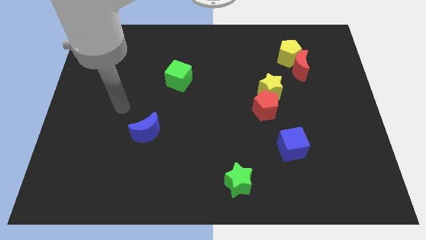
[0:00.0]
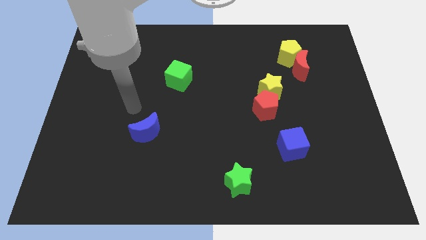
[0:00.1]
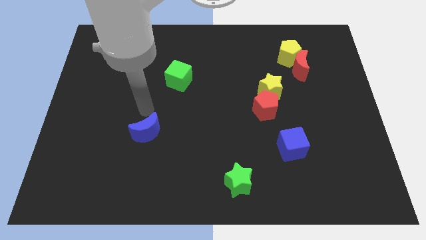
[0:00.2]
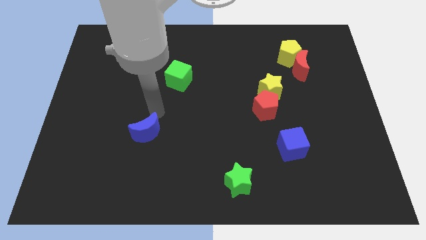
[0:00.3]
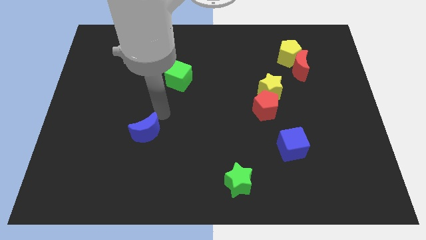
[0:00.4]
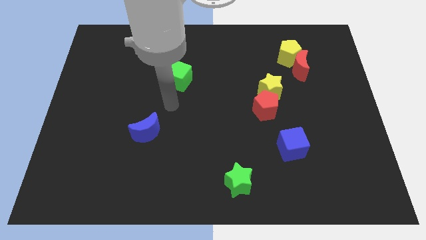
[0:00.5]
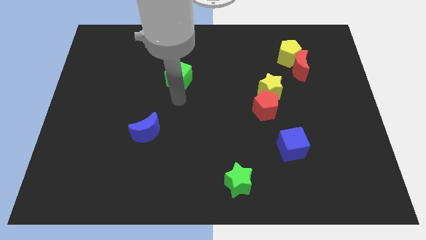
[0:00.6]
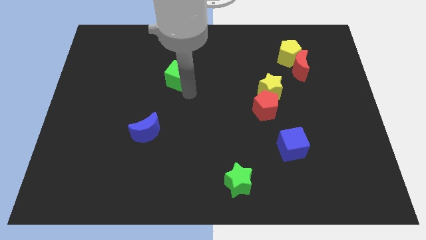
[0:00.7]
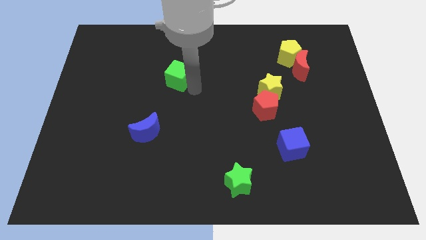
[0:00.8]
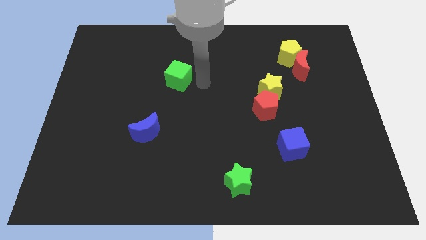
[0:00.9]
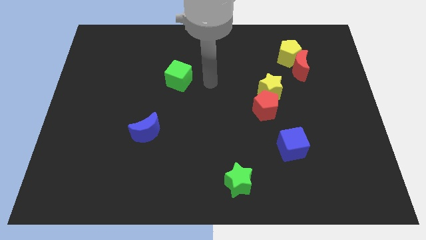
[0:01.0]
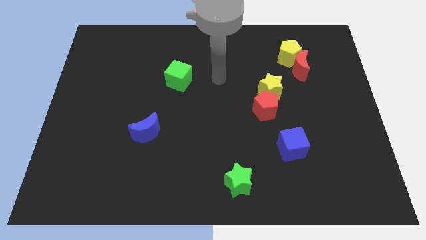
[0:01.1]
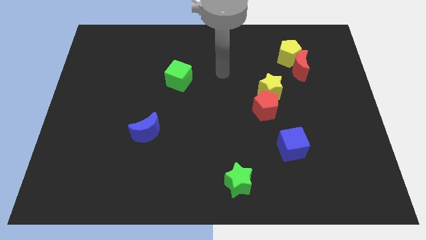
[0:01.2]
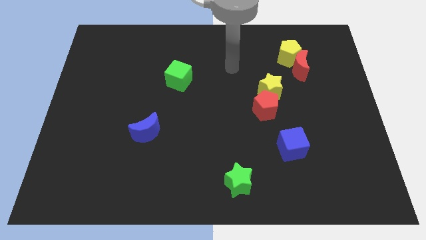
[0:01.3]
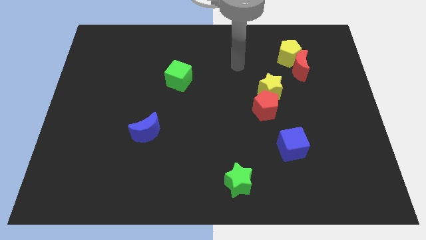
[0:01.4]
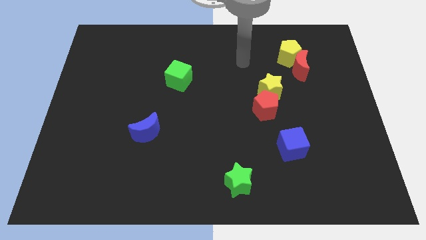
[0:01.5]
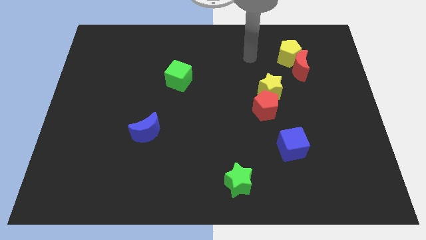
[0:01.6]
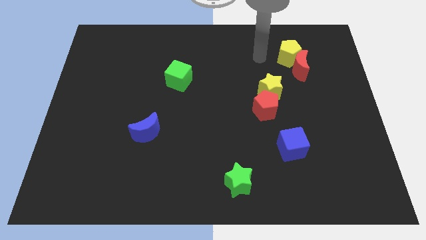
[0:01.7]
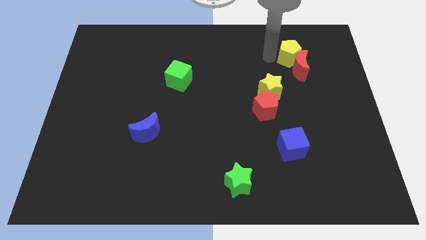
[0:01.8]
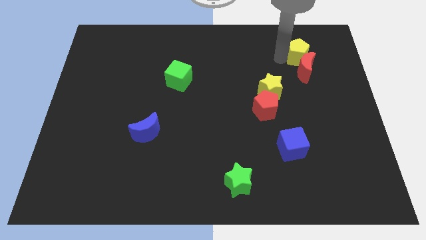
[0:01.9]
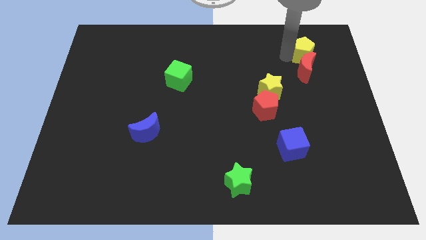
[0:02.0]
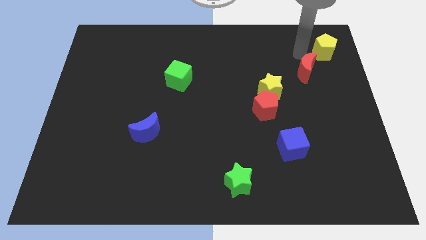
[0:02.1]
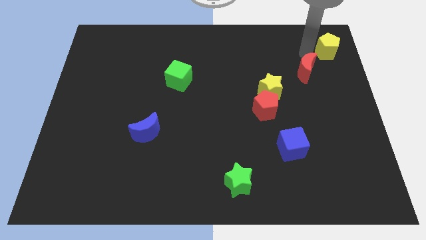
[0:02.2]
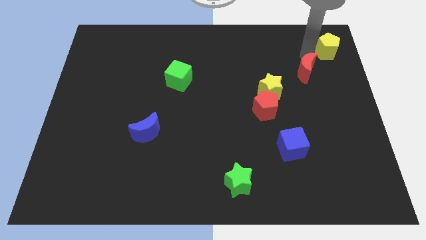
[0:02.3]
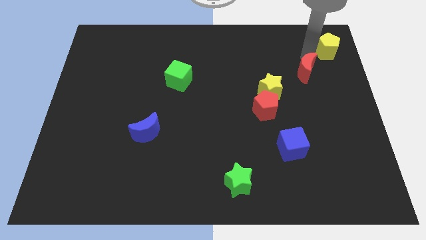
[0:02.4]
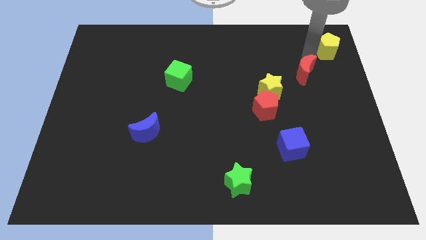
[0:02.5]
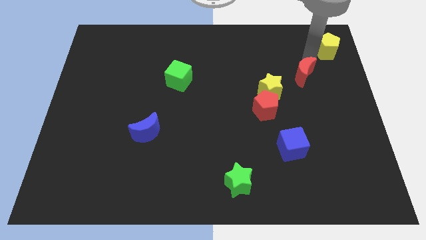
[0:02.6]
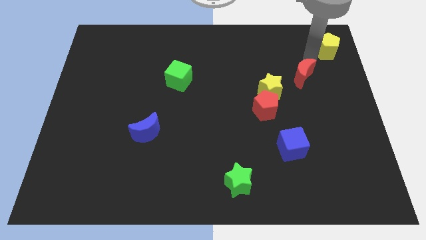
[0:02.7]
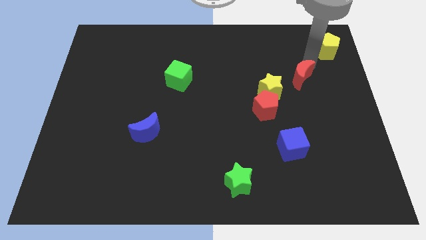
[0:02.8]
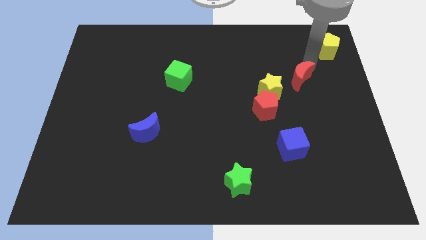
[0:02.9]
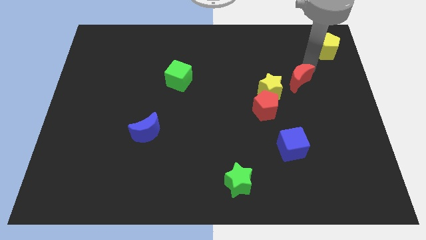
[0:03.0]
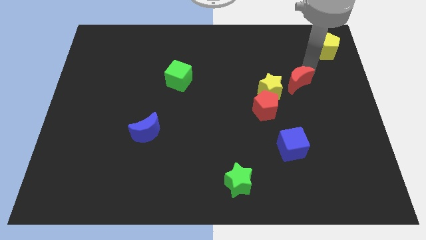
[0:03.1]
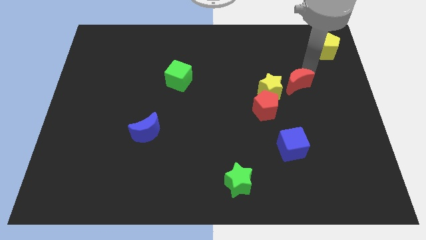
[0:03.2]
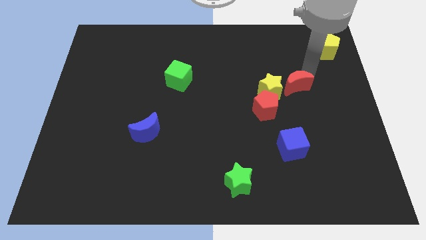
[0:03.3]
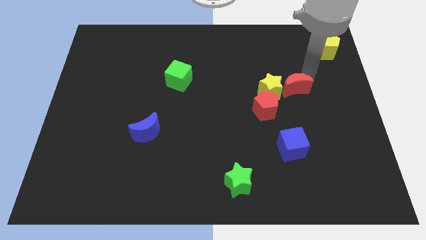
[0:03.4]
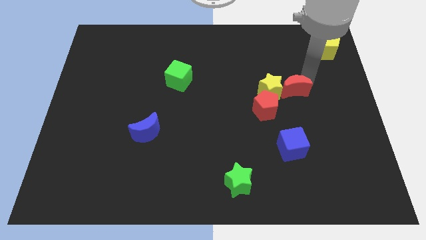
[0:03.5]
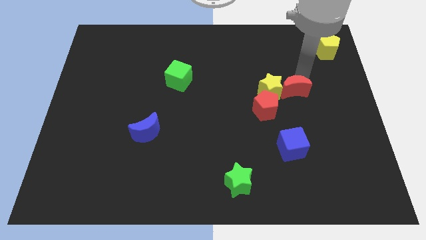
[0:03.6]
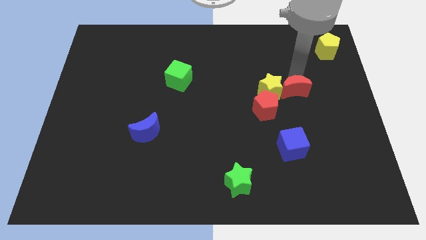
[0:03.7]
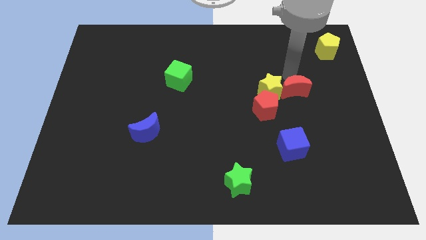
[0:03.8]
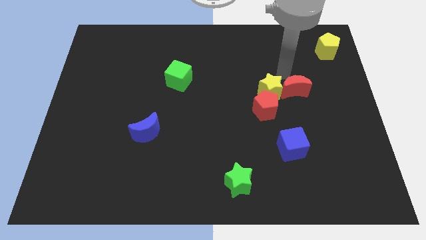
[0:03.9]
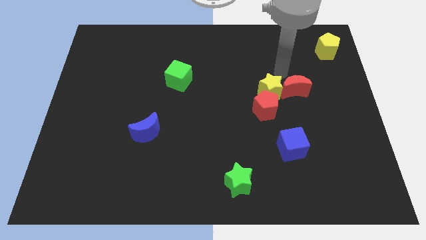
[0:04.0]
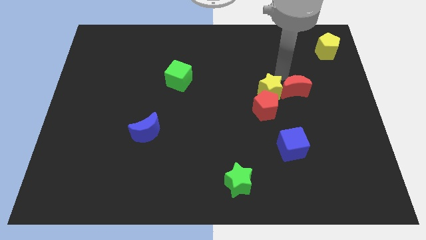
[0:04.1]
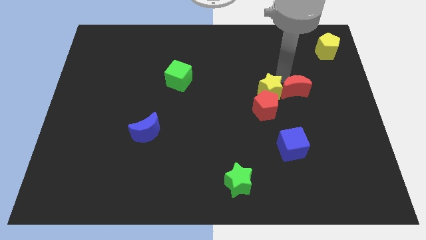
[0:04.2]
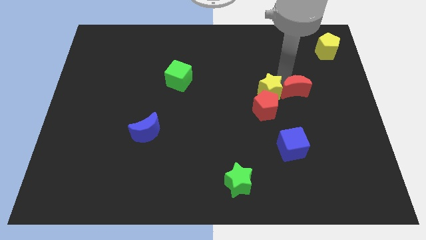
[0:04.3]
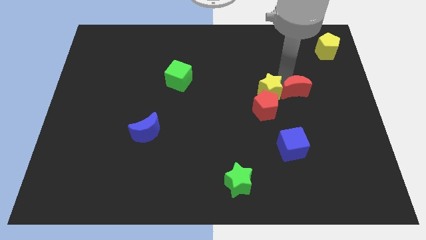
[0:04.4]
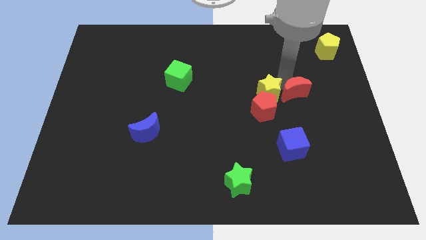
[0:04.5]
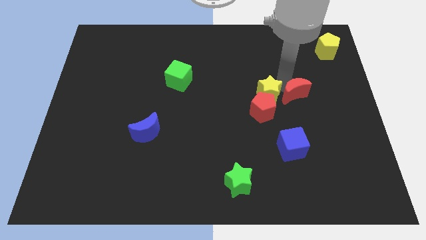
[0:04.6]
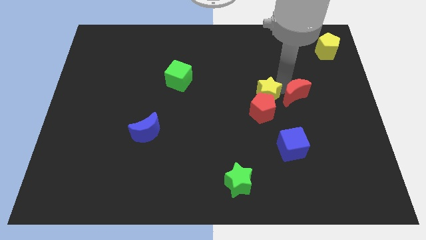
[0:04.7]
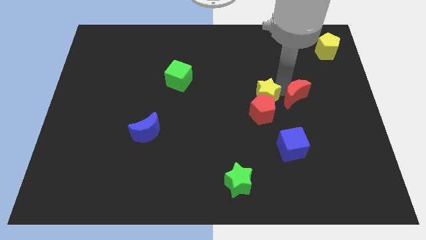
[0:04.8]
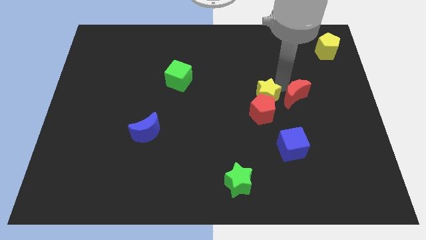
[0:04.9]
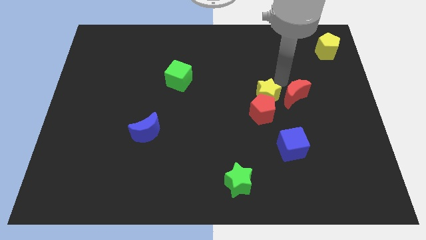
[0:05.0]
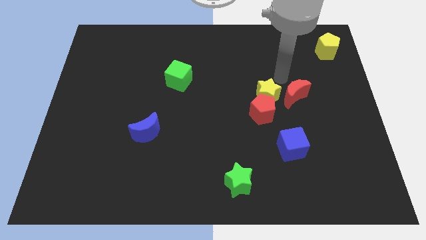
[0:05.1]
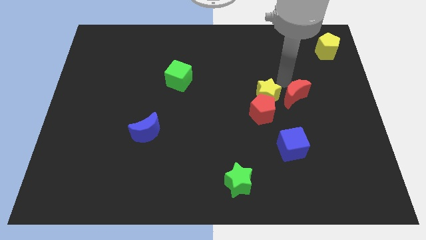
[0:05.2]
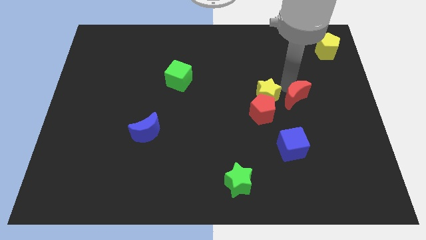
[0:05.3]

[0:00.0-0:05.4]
slide the red moon to the right side of the red pentagon

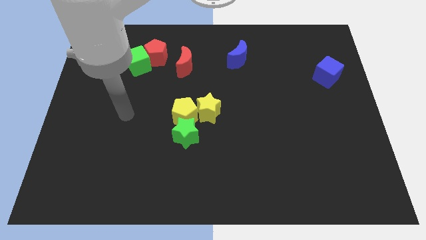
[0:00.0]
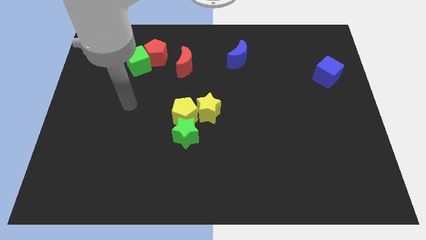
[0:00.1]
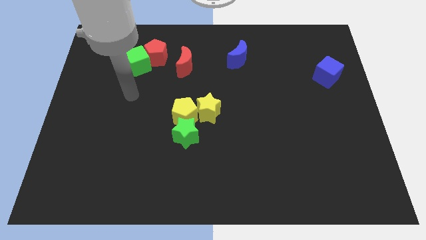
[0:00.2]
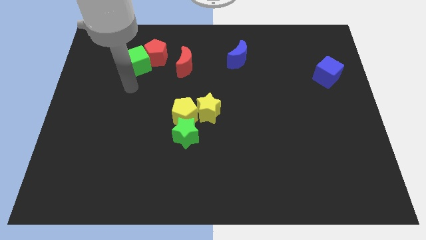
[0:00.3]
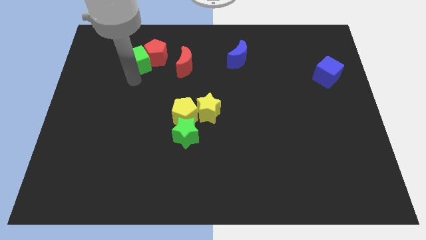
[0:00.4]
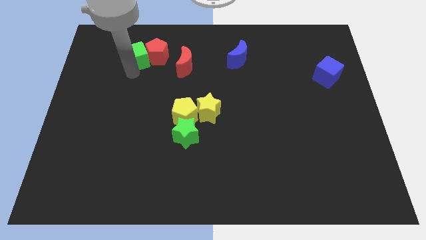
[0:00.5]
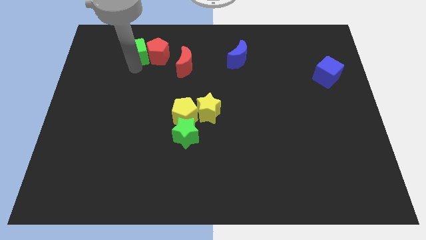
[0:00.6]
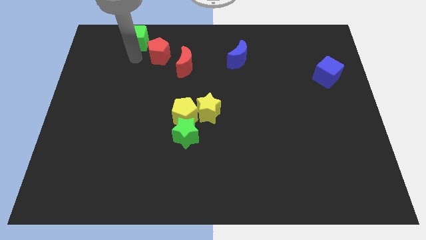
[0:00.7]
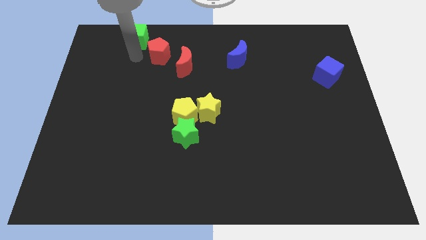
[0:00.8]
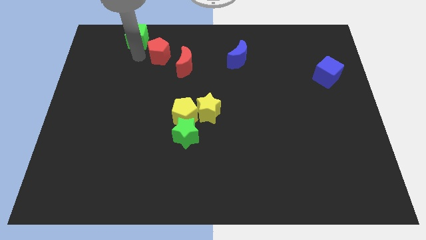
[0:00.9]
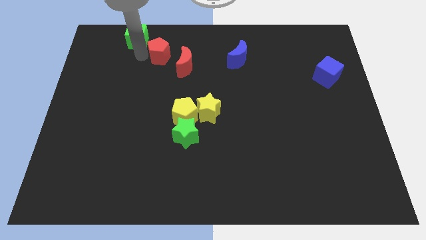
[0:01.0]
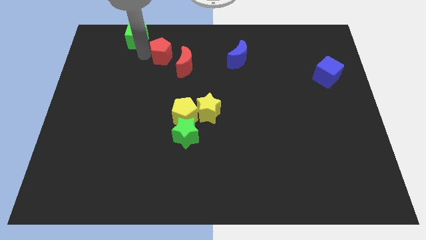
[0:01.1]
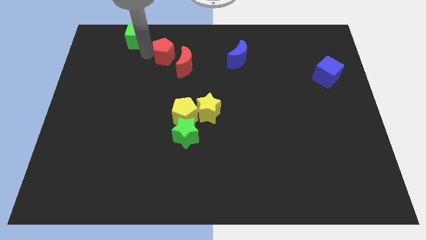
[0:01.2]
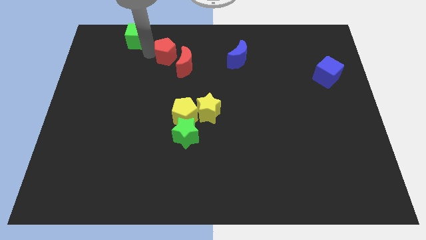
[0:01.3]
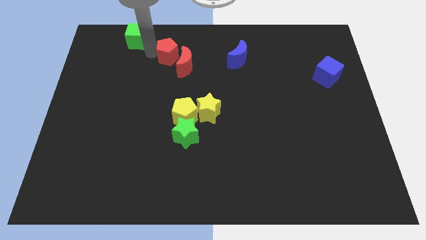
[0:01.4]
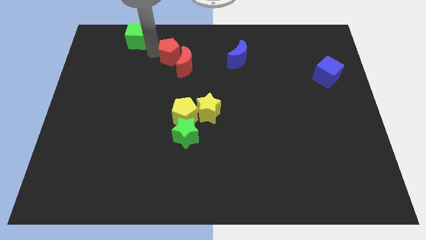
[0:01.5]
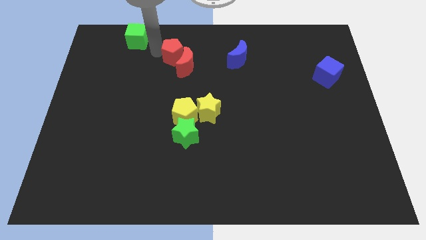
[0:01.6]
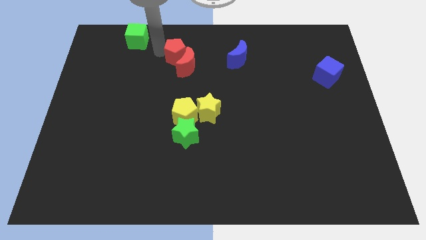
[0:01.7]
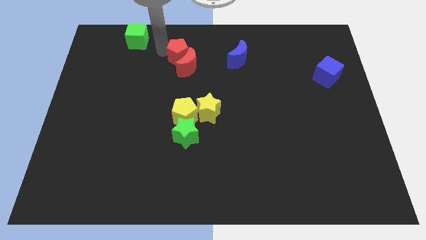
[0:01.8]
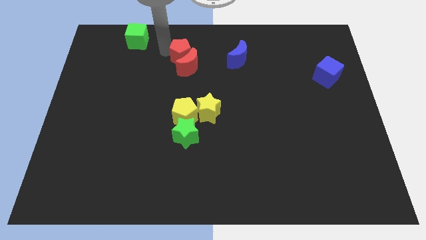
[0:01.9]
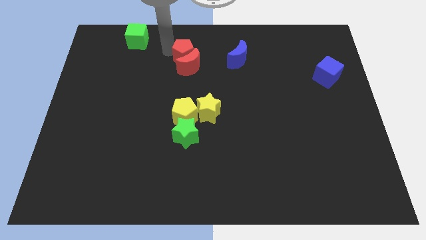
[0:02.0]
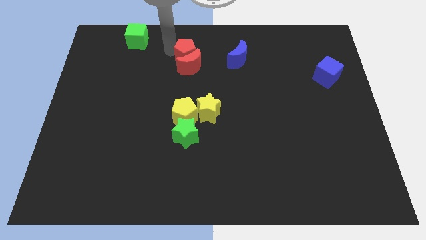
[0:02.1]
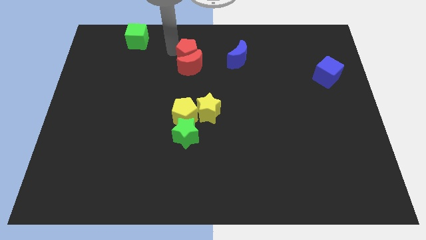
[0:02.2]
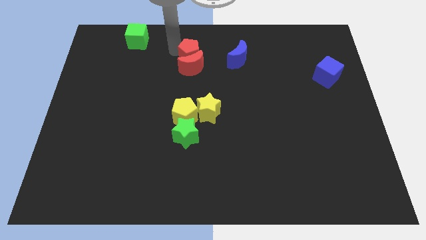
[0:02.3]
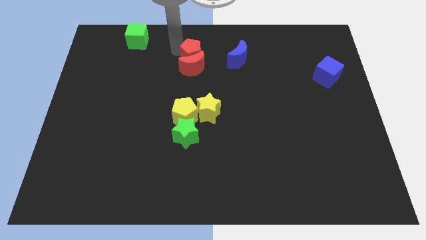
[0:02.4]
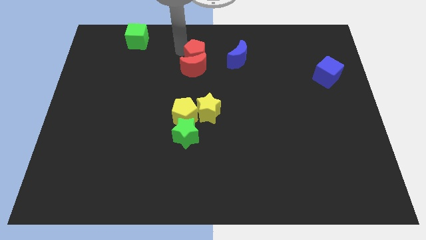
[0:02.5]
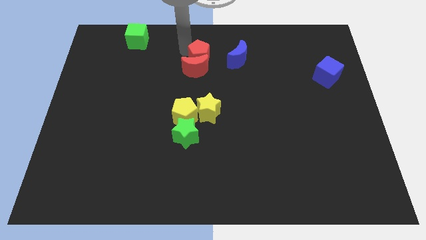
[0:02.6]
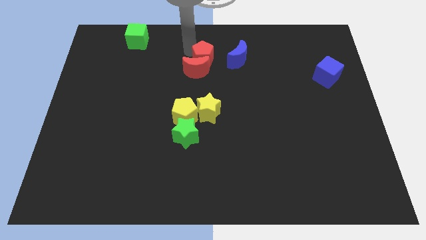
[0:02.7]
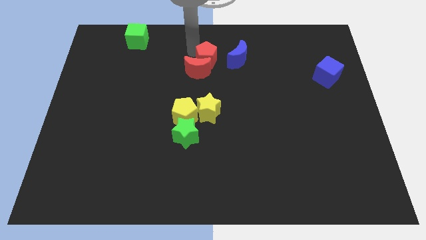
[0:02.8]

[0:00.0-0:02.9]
put the red pentagon right of the red moon
